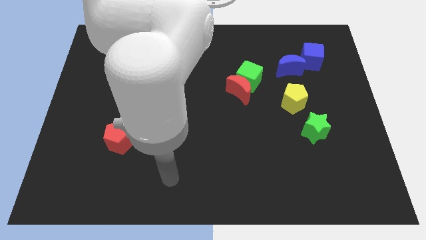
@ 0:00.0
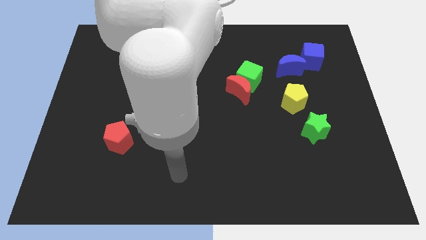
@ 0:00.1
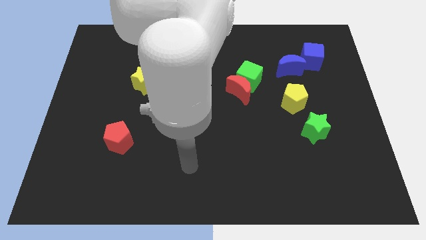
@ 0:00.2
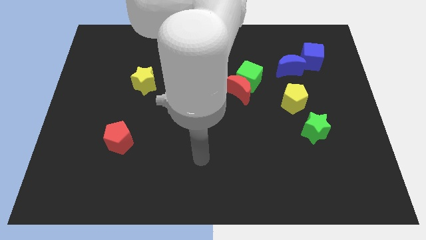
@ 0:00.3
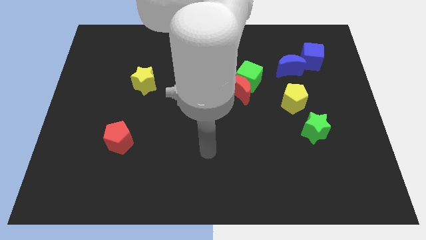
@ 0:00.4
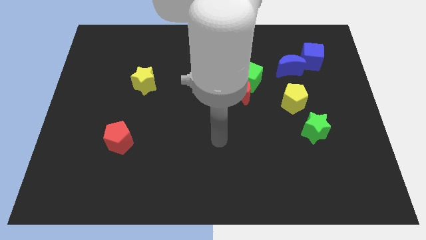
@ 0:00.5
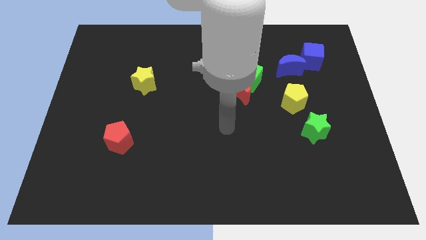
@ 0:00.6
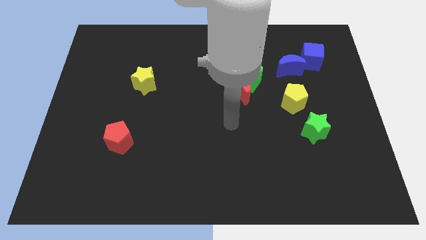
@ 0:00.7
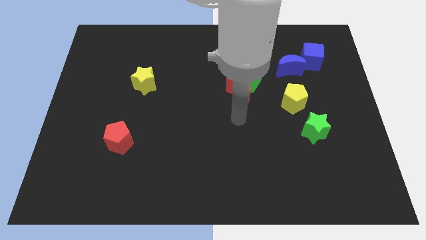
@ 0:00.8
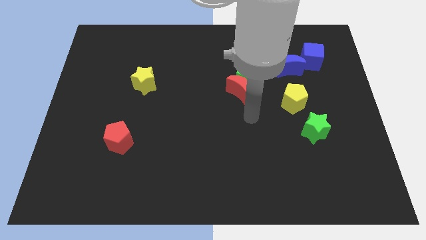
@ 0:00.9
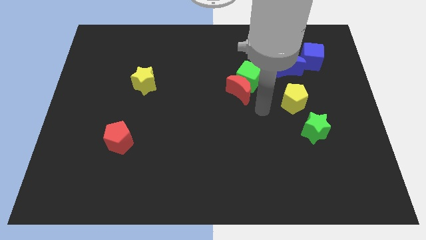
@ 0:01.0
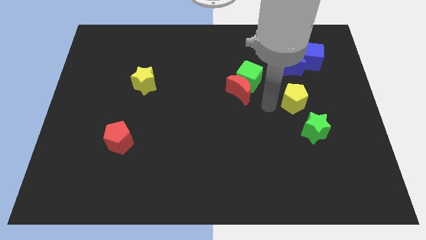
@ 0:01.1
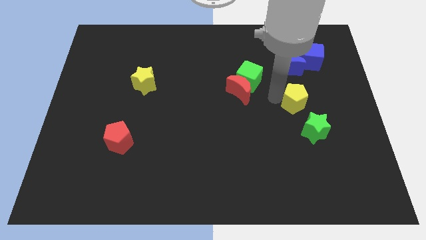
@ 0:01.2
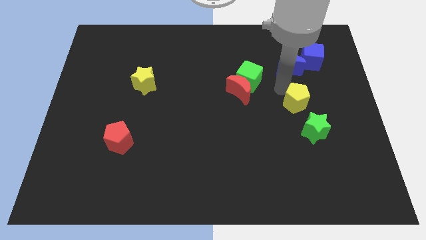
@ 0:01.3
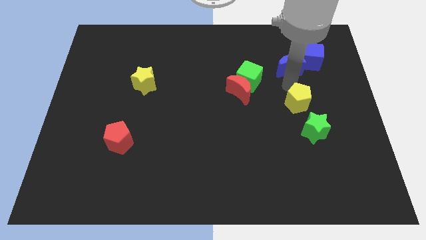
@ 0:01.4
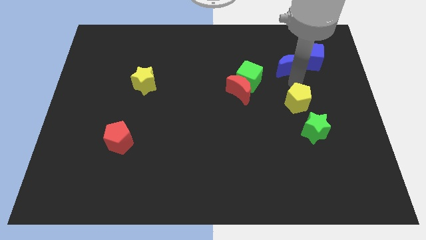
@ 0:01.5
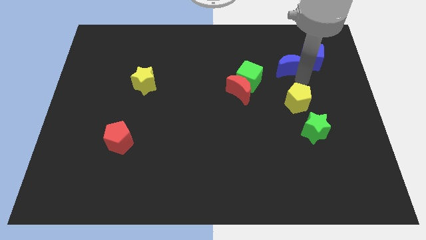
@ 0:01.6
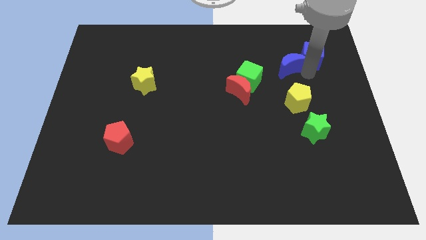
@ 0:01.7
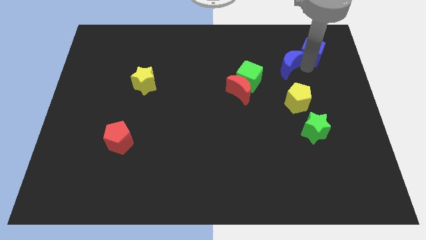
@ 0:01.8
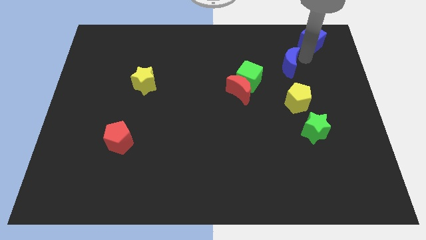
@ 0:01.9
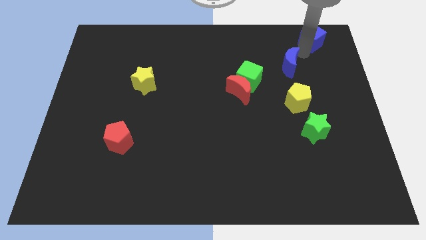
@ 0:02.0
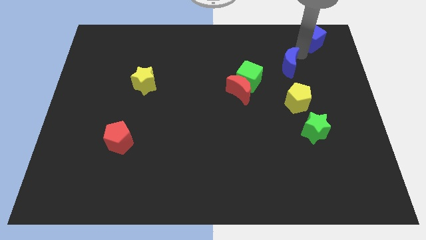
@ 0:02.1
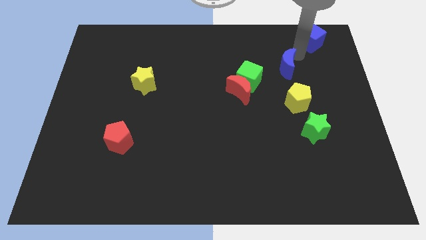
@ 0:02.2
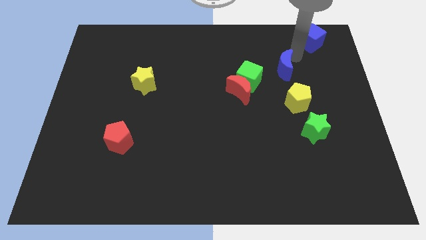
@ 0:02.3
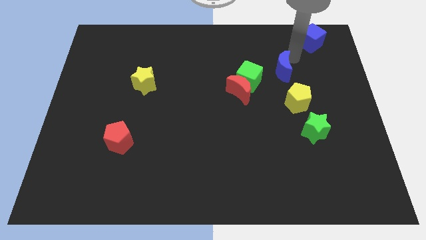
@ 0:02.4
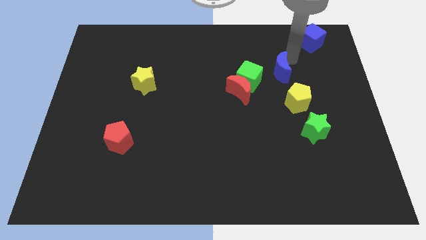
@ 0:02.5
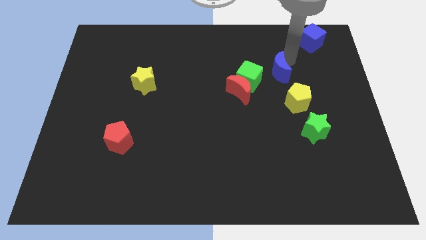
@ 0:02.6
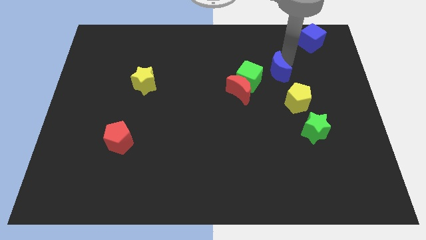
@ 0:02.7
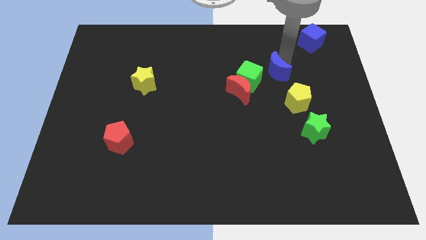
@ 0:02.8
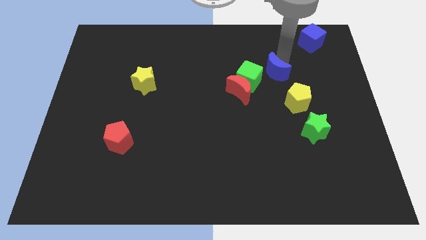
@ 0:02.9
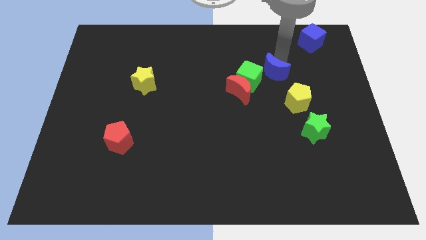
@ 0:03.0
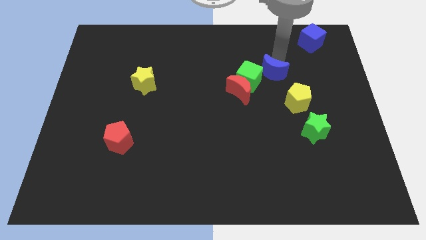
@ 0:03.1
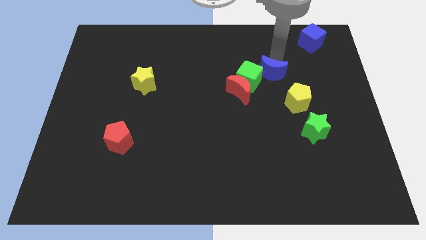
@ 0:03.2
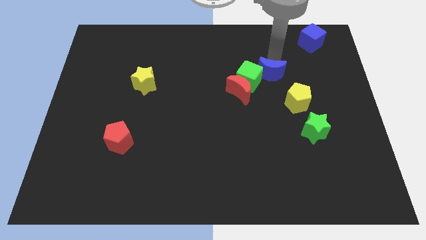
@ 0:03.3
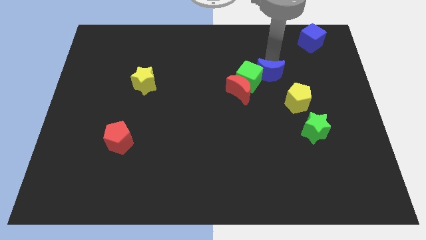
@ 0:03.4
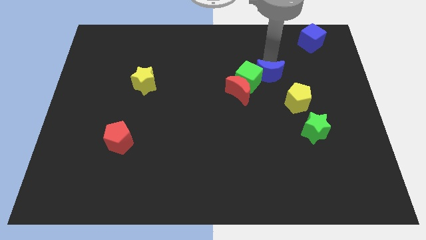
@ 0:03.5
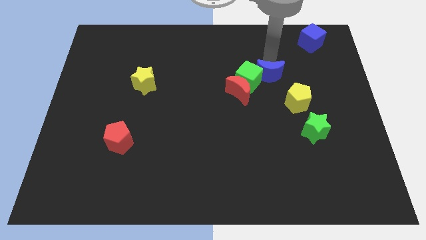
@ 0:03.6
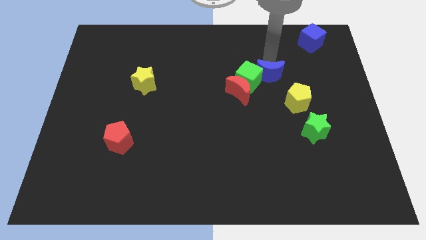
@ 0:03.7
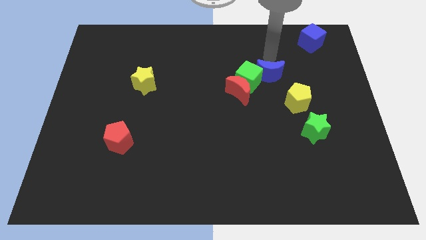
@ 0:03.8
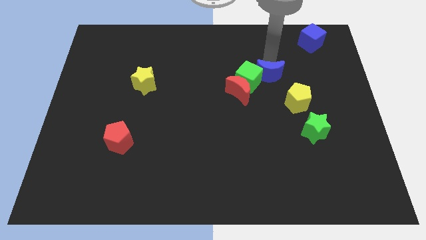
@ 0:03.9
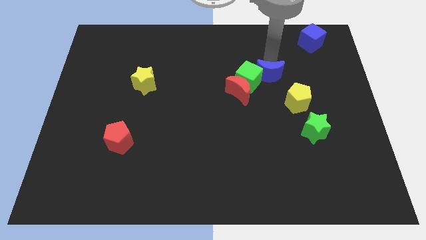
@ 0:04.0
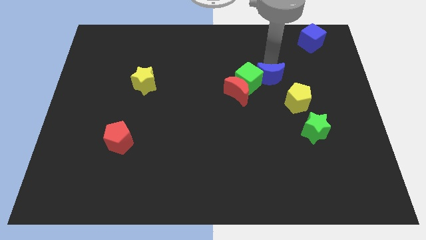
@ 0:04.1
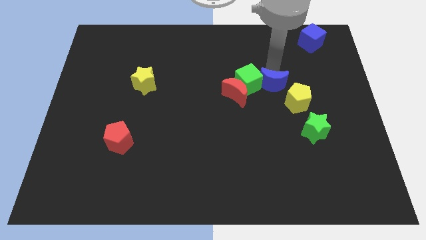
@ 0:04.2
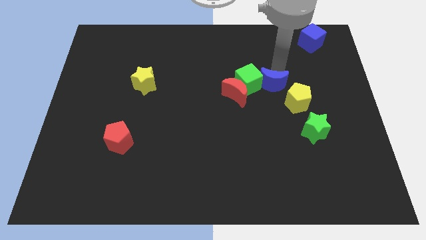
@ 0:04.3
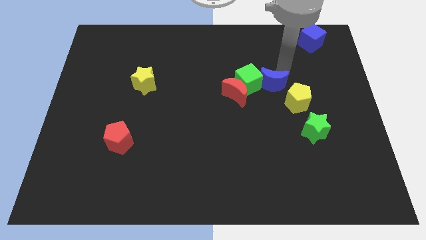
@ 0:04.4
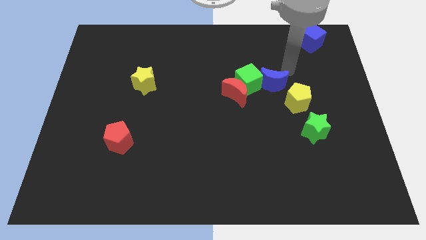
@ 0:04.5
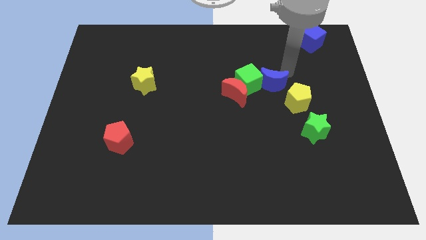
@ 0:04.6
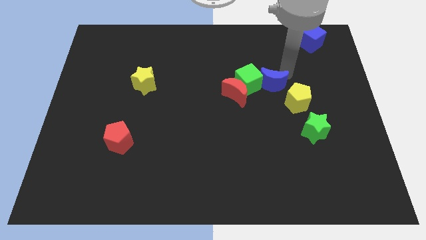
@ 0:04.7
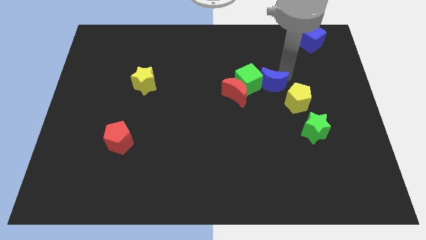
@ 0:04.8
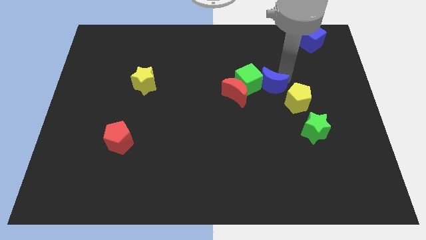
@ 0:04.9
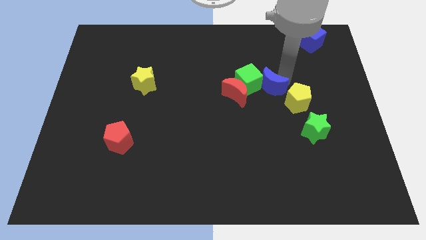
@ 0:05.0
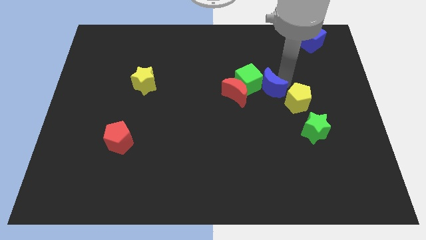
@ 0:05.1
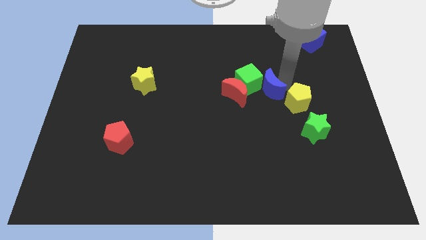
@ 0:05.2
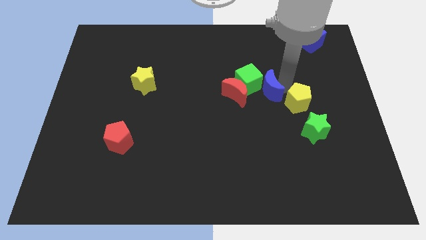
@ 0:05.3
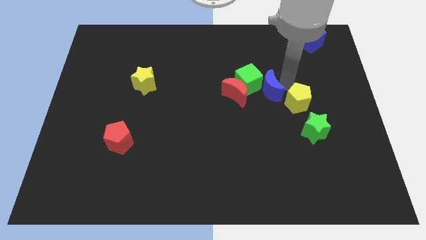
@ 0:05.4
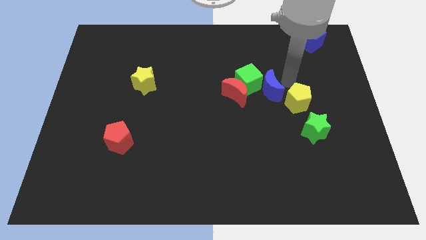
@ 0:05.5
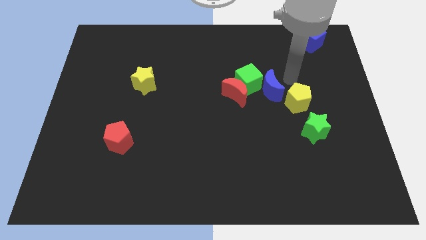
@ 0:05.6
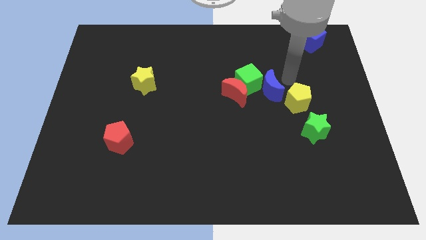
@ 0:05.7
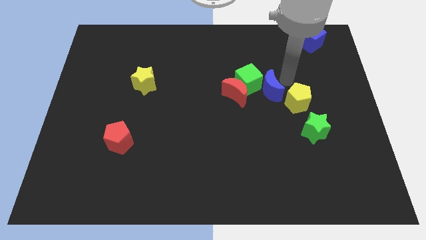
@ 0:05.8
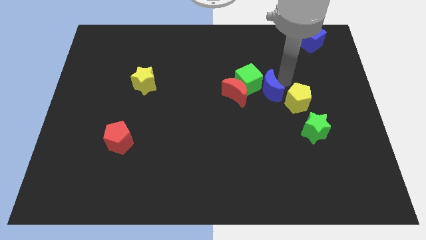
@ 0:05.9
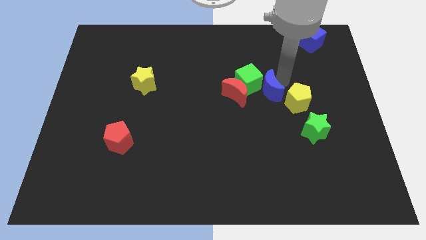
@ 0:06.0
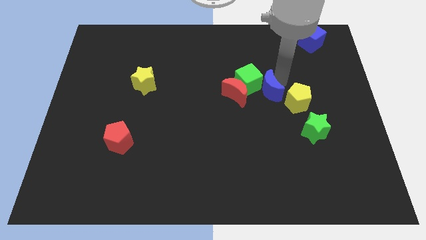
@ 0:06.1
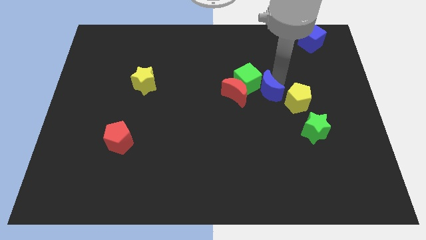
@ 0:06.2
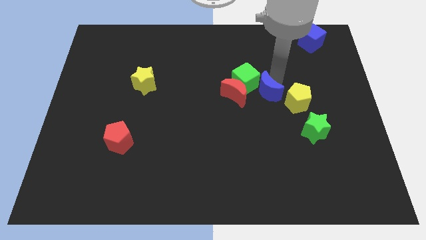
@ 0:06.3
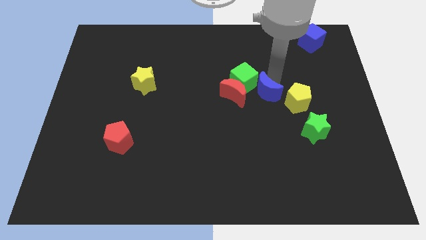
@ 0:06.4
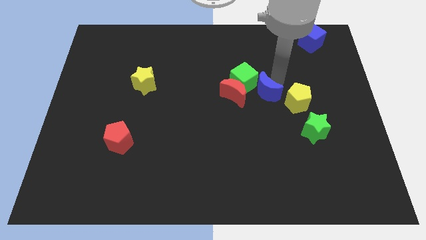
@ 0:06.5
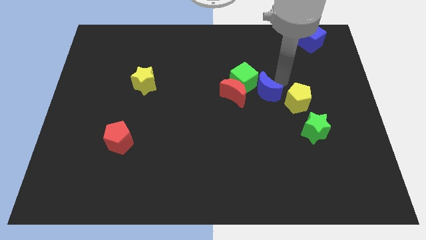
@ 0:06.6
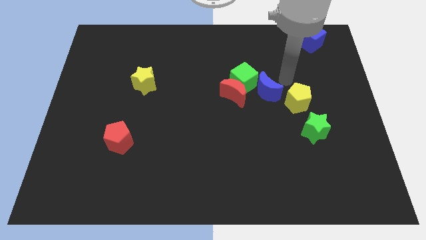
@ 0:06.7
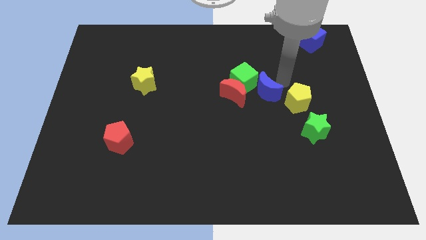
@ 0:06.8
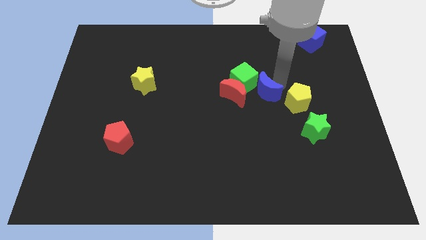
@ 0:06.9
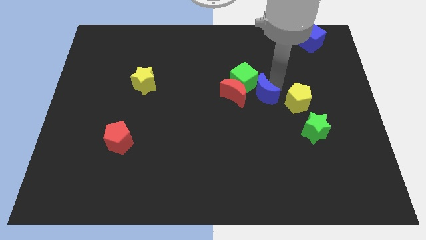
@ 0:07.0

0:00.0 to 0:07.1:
slide the blue moon to the middle
